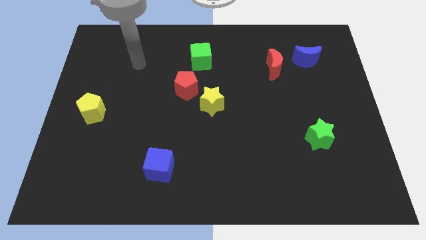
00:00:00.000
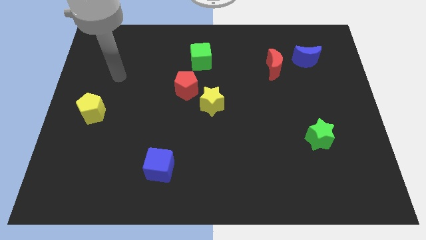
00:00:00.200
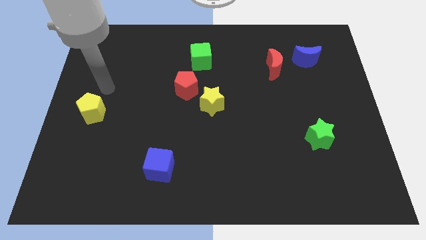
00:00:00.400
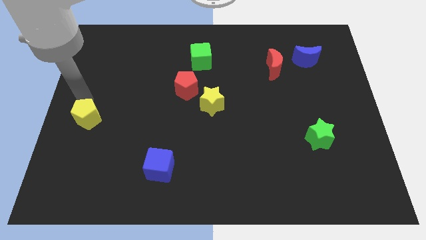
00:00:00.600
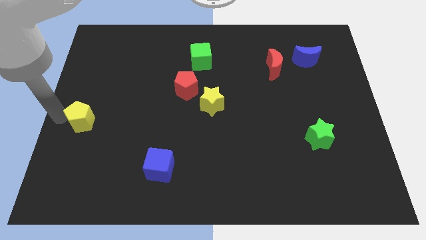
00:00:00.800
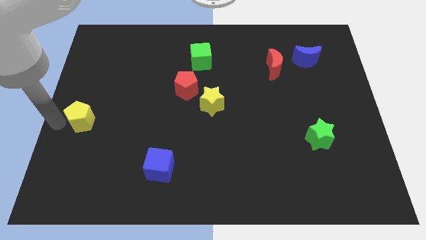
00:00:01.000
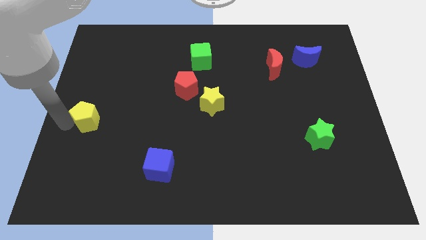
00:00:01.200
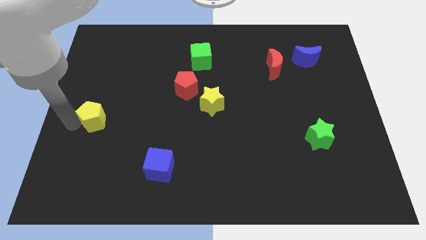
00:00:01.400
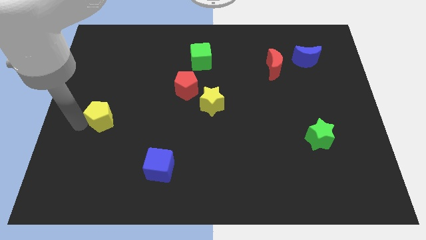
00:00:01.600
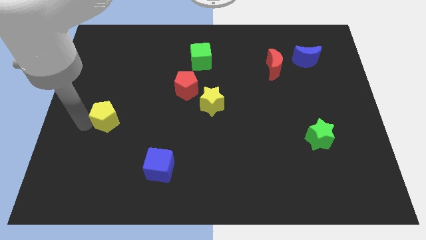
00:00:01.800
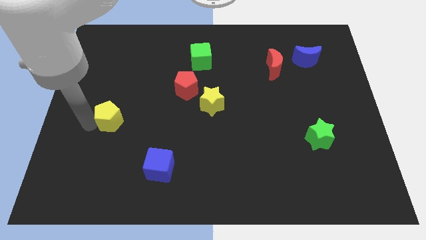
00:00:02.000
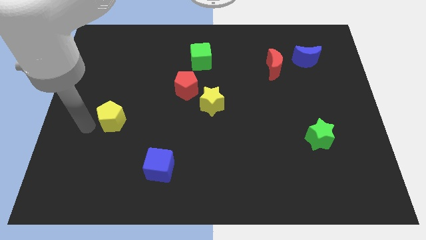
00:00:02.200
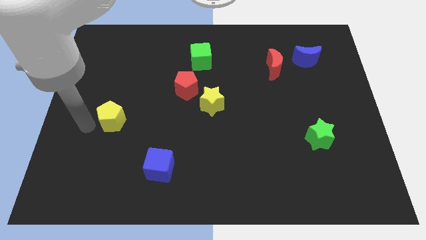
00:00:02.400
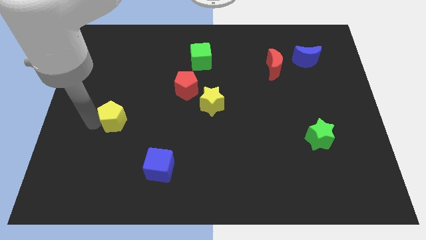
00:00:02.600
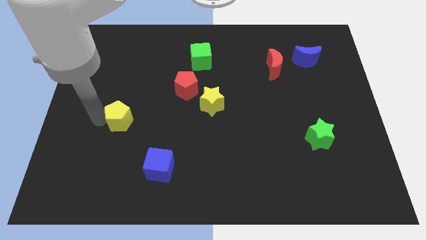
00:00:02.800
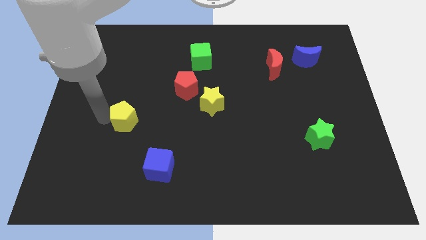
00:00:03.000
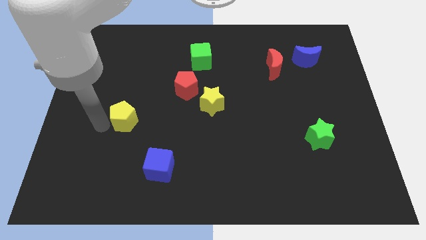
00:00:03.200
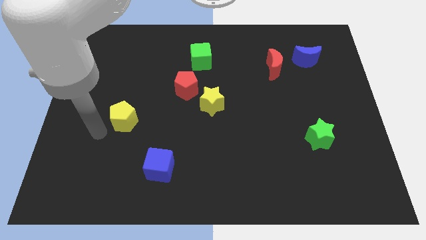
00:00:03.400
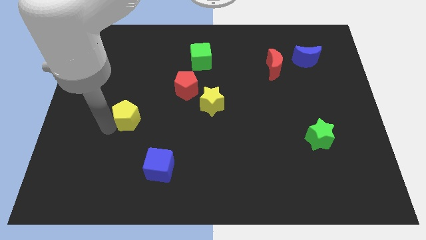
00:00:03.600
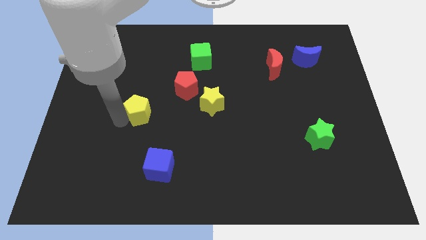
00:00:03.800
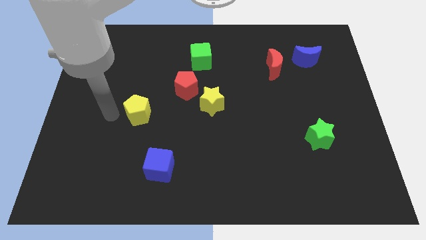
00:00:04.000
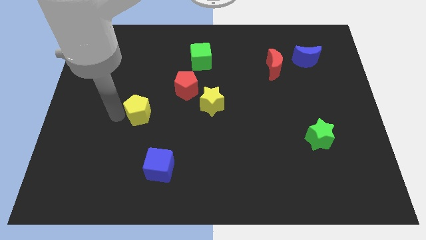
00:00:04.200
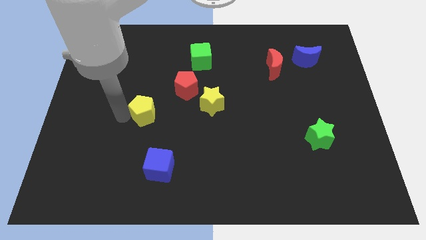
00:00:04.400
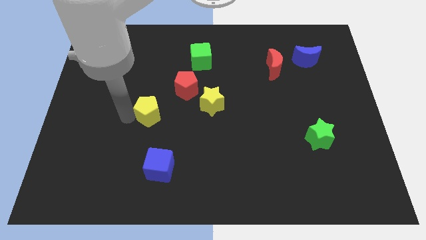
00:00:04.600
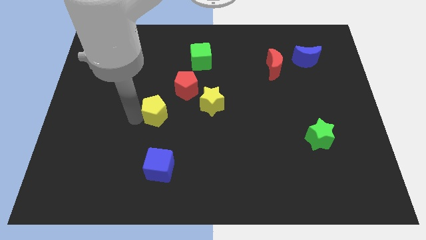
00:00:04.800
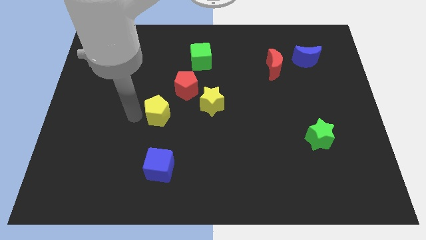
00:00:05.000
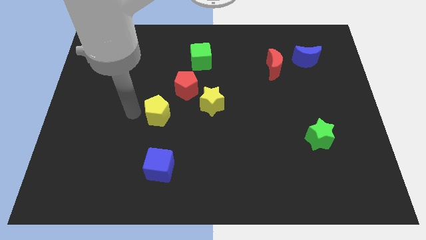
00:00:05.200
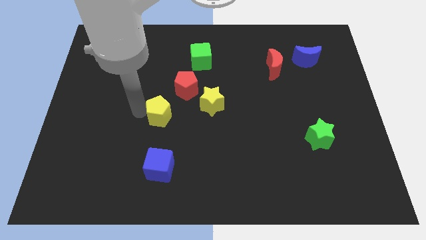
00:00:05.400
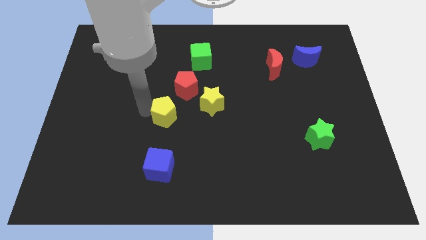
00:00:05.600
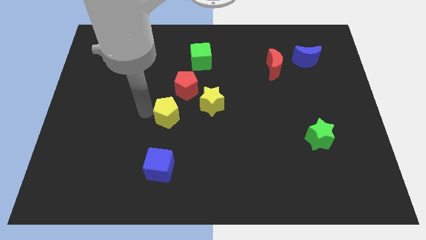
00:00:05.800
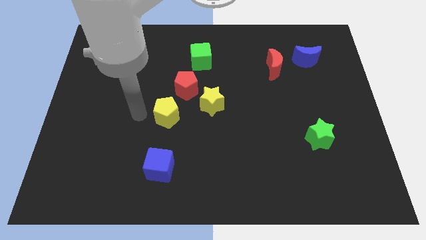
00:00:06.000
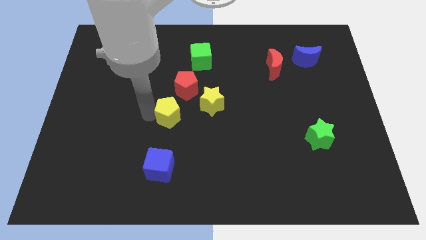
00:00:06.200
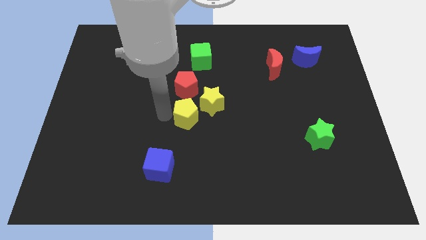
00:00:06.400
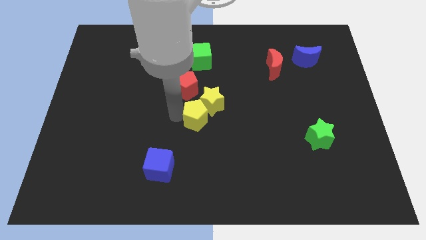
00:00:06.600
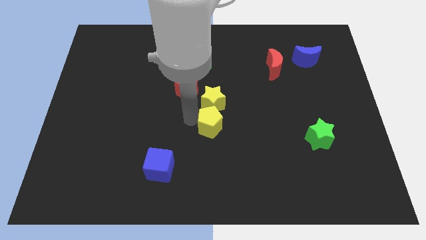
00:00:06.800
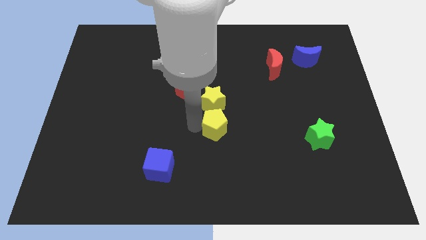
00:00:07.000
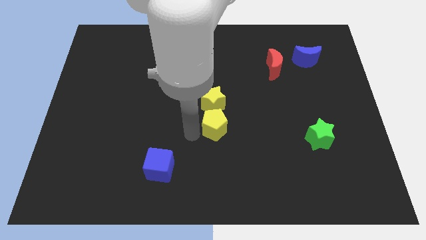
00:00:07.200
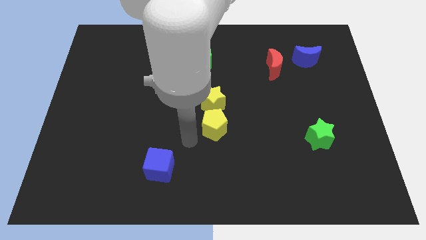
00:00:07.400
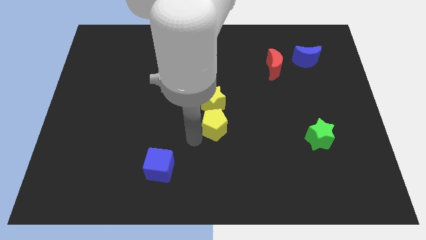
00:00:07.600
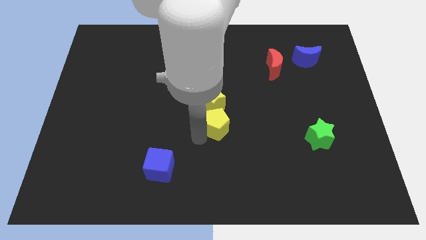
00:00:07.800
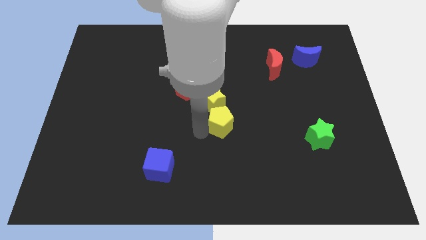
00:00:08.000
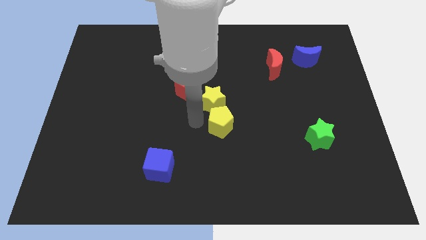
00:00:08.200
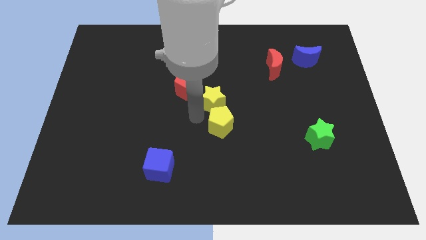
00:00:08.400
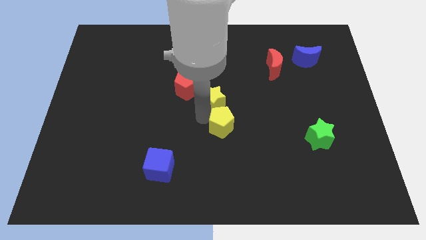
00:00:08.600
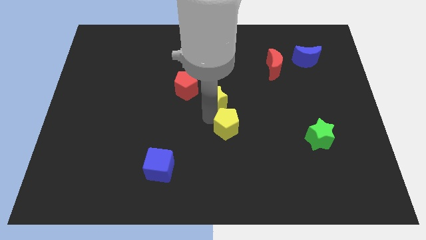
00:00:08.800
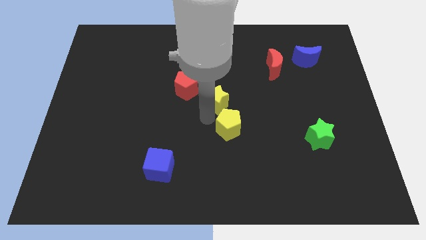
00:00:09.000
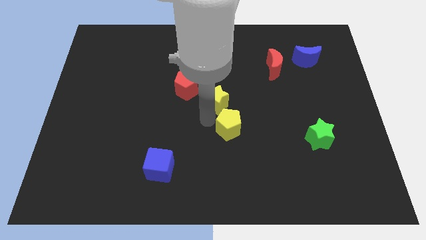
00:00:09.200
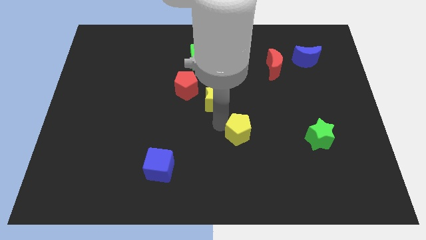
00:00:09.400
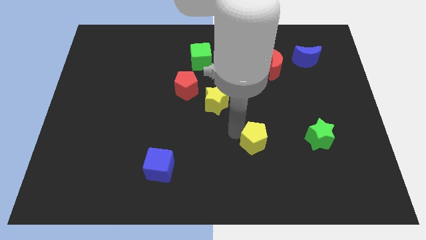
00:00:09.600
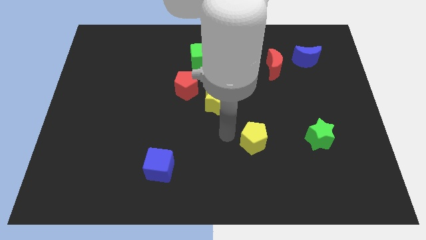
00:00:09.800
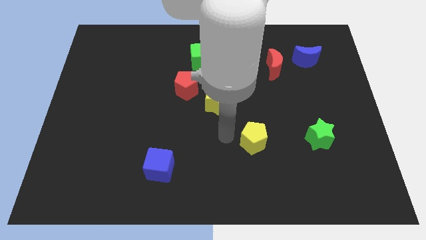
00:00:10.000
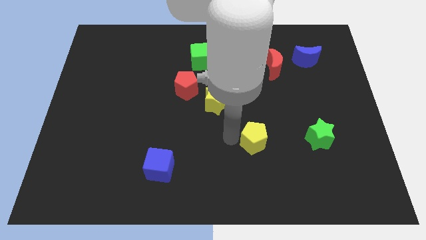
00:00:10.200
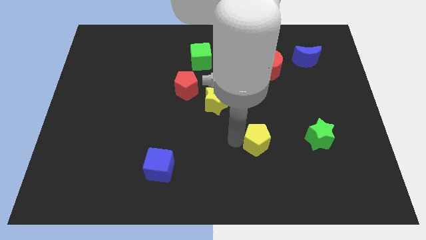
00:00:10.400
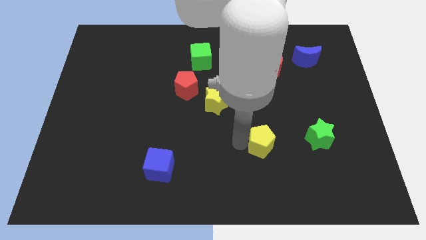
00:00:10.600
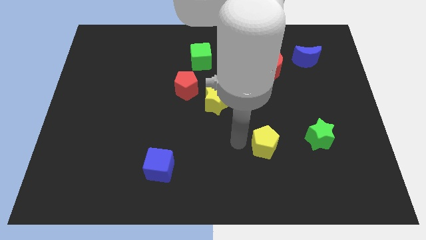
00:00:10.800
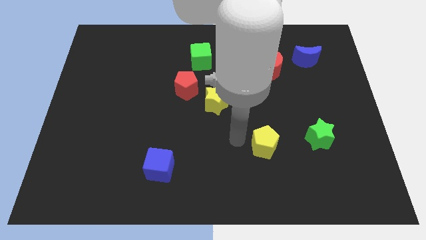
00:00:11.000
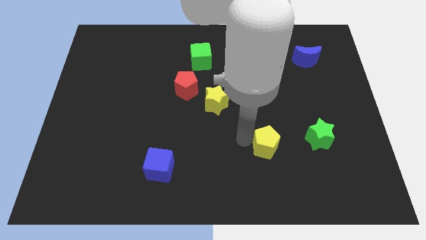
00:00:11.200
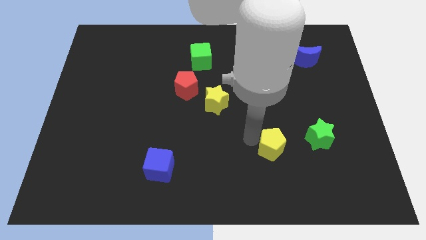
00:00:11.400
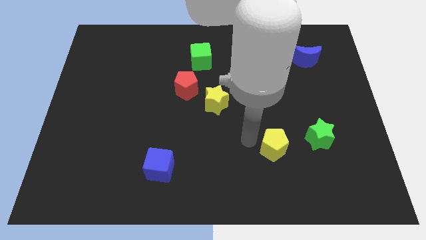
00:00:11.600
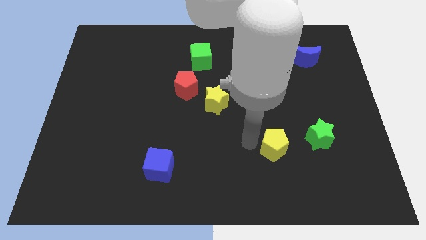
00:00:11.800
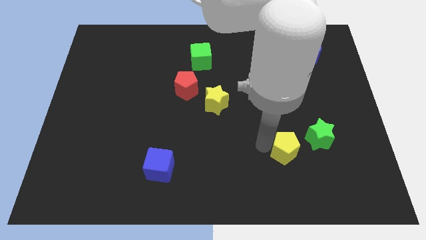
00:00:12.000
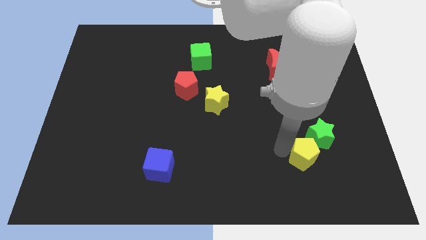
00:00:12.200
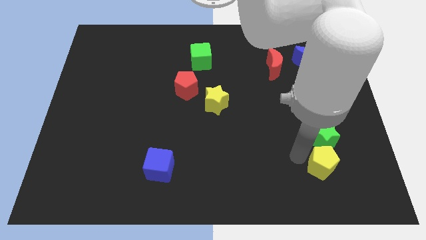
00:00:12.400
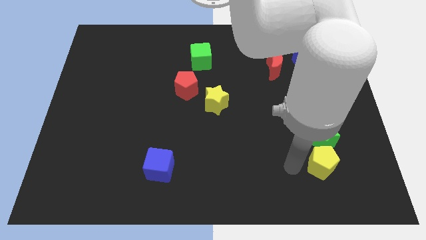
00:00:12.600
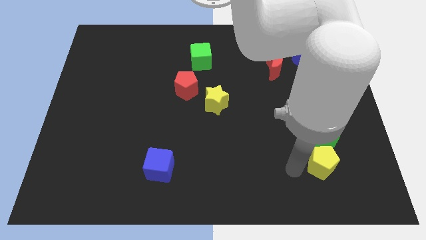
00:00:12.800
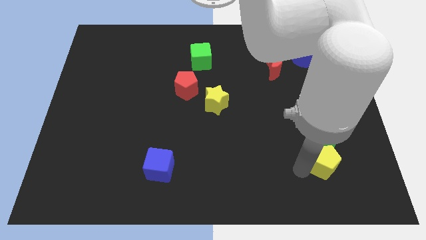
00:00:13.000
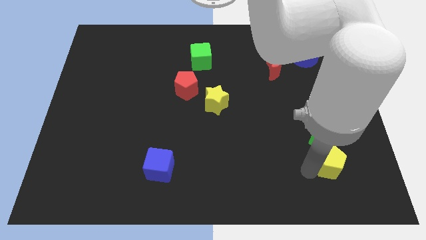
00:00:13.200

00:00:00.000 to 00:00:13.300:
put the yellow pentagon to the bottom right side of the green star

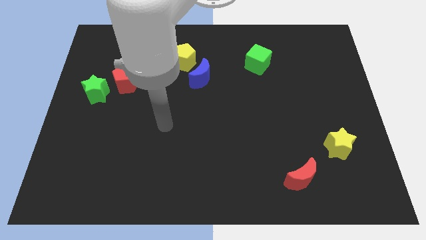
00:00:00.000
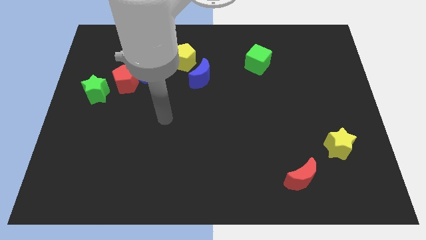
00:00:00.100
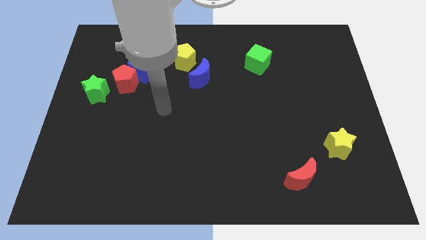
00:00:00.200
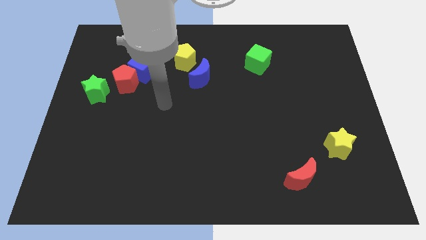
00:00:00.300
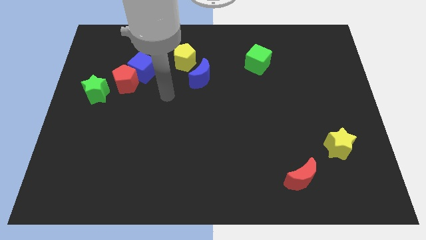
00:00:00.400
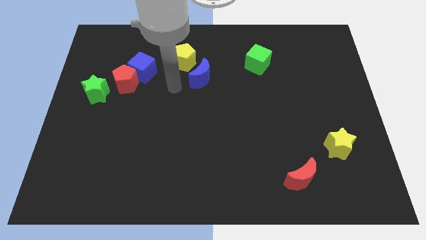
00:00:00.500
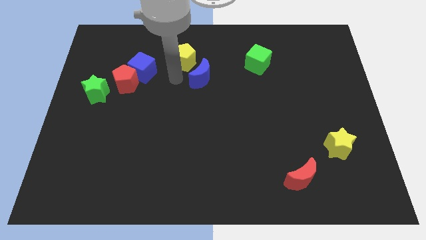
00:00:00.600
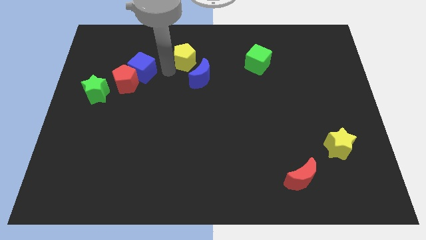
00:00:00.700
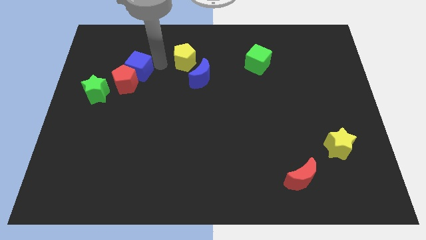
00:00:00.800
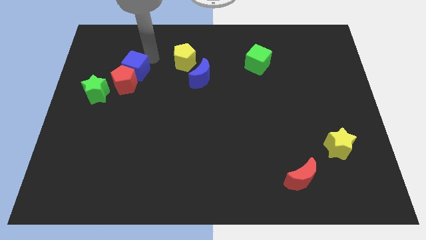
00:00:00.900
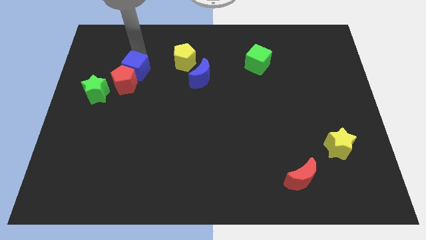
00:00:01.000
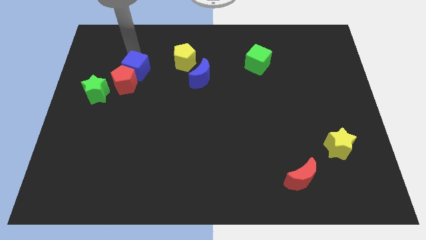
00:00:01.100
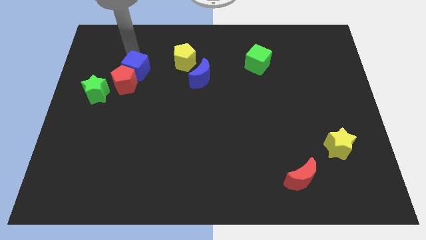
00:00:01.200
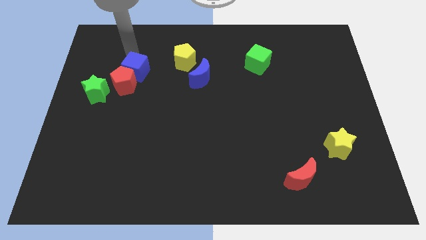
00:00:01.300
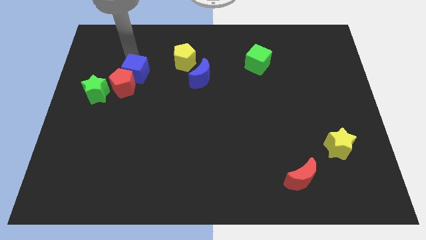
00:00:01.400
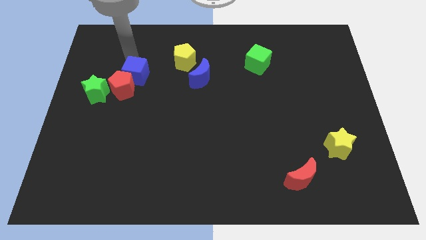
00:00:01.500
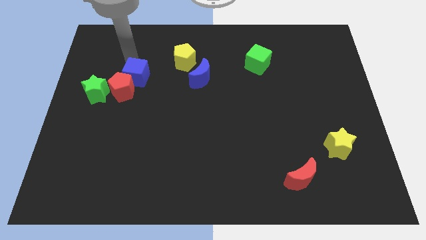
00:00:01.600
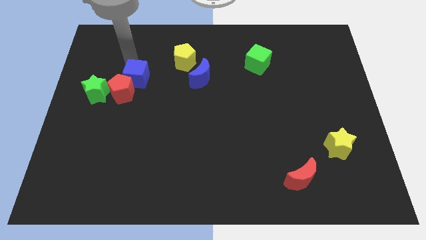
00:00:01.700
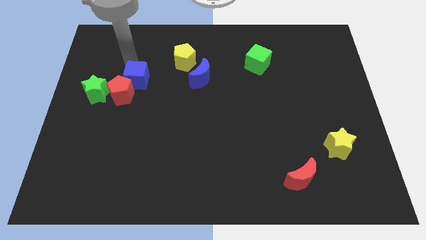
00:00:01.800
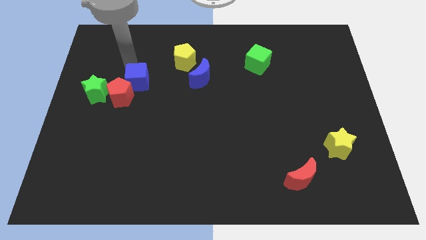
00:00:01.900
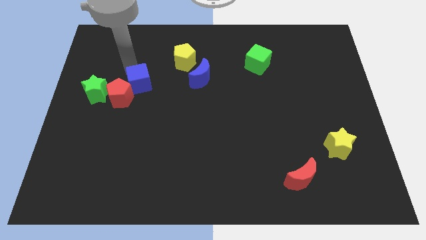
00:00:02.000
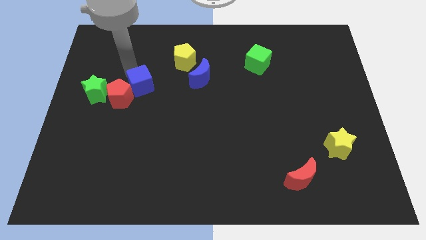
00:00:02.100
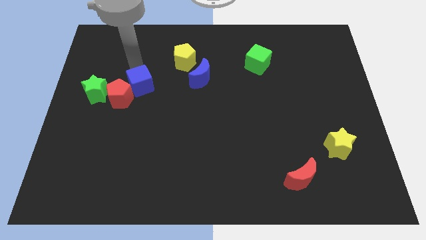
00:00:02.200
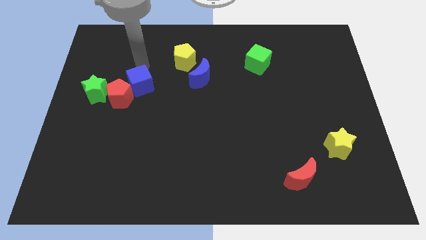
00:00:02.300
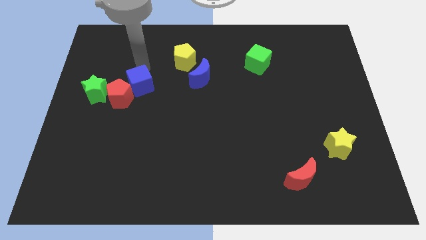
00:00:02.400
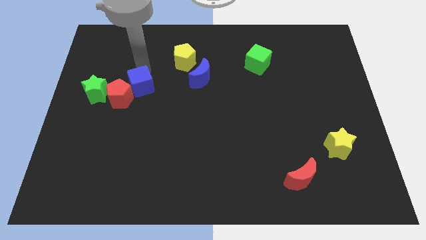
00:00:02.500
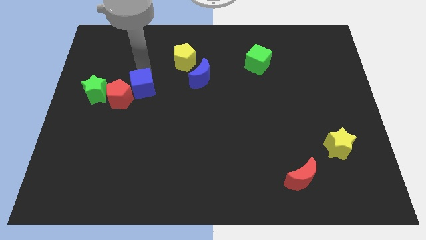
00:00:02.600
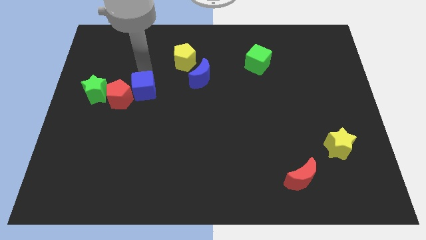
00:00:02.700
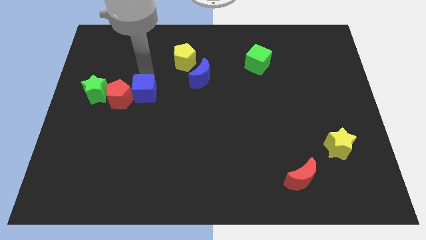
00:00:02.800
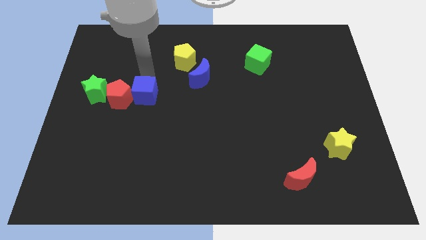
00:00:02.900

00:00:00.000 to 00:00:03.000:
put the blue cube to the bottom right of the red pentagon
